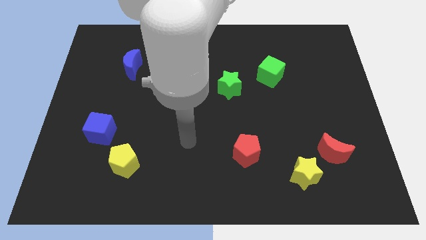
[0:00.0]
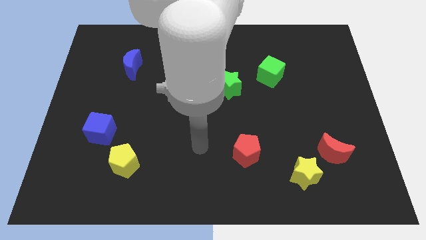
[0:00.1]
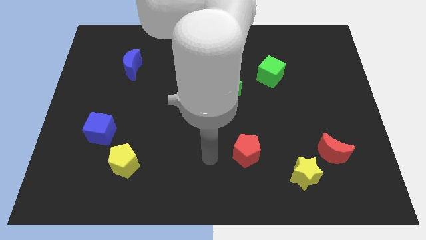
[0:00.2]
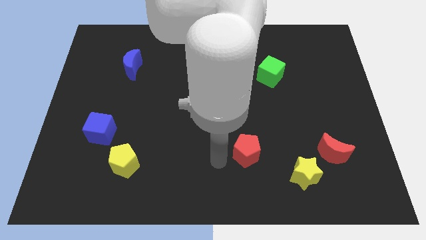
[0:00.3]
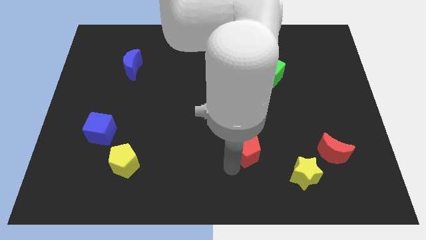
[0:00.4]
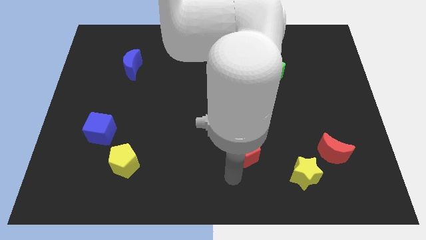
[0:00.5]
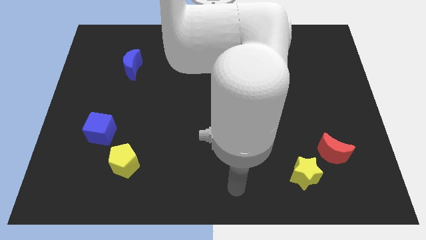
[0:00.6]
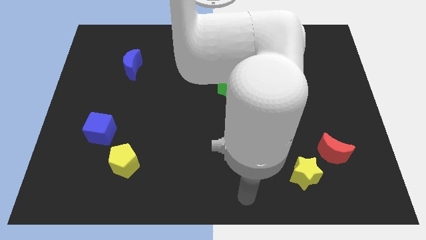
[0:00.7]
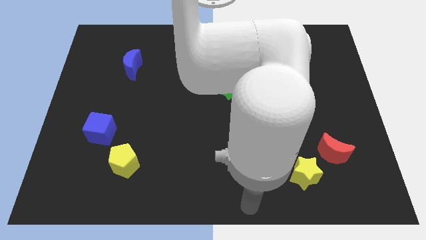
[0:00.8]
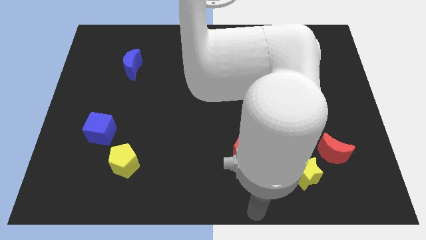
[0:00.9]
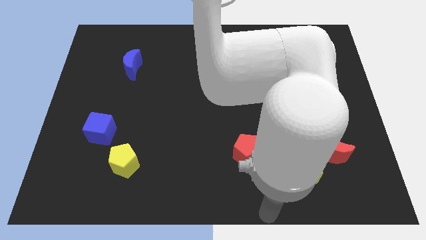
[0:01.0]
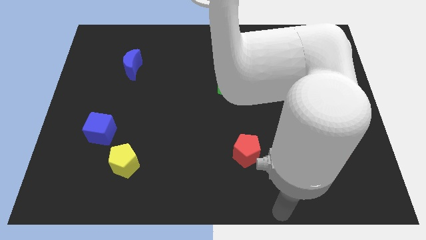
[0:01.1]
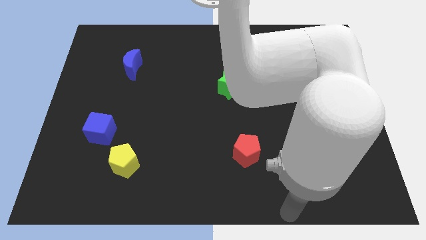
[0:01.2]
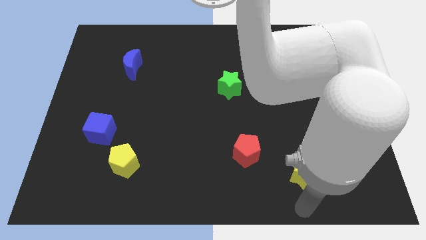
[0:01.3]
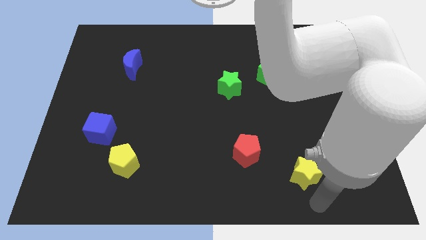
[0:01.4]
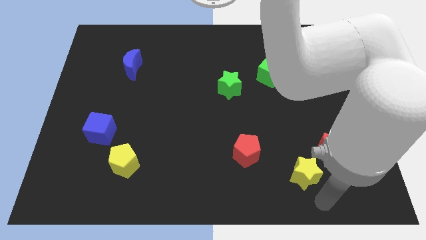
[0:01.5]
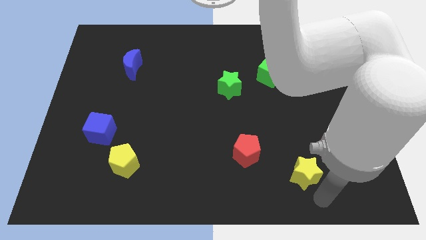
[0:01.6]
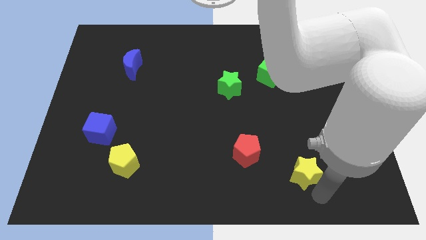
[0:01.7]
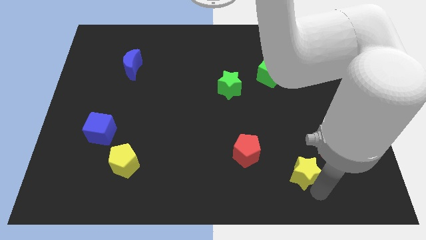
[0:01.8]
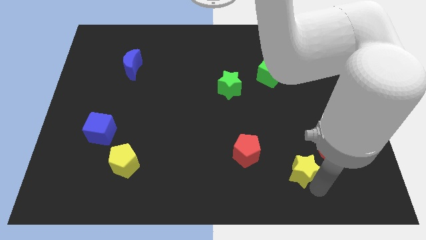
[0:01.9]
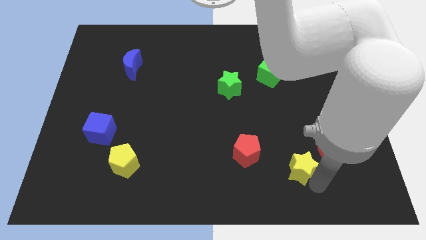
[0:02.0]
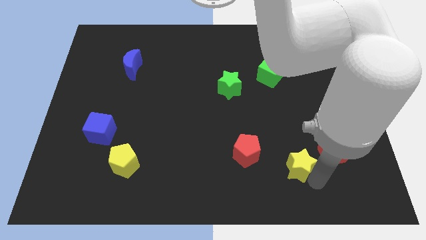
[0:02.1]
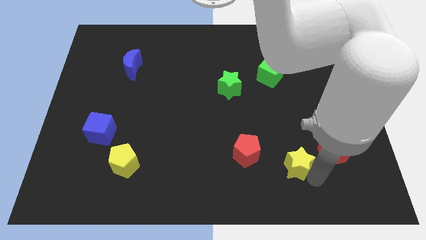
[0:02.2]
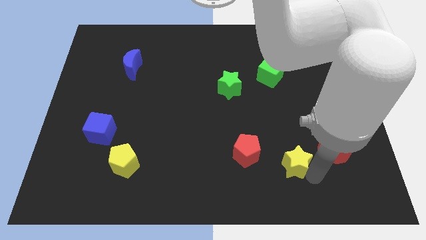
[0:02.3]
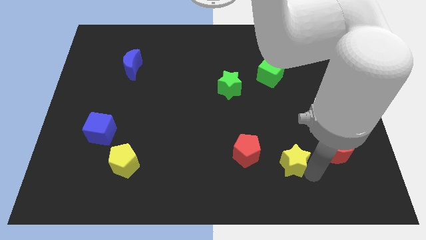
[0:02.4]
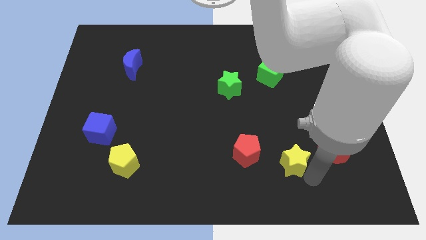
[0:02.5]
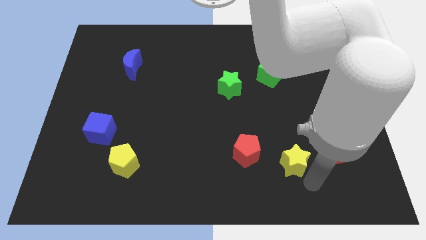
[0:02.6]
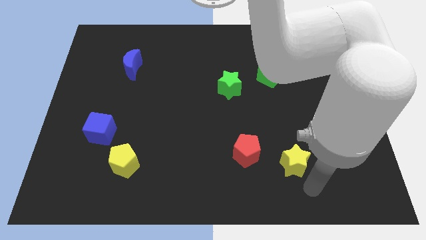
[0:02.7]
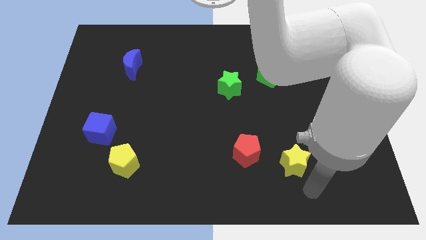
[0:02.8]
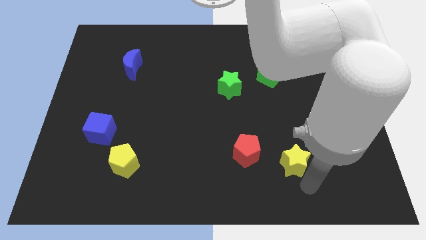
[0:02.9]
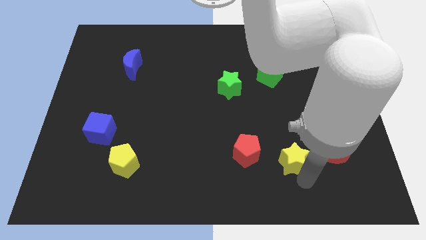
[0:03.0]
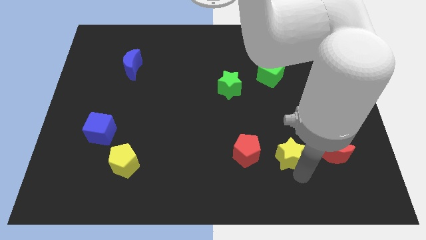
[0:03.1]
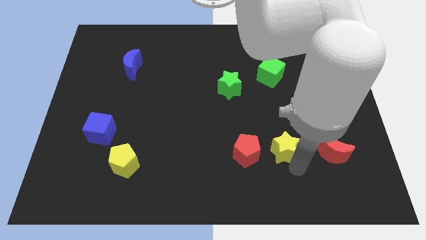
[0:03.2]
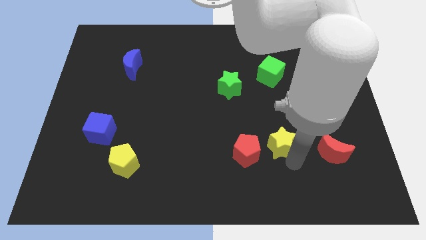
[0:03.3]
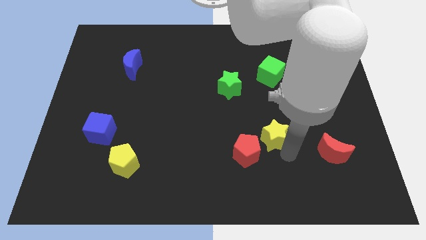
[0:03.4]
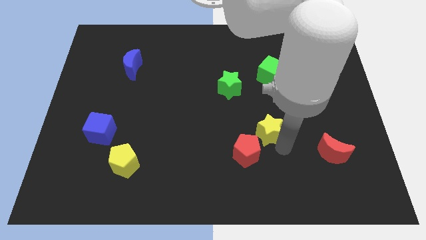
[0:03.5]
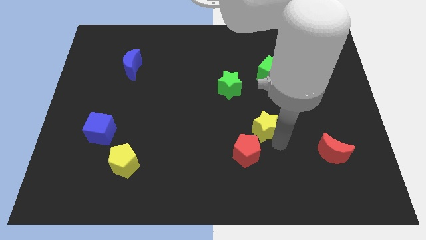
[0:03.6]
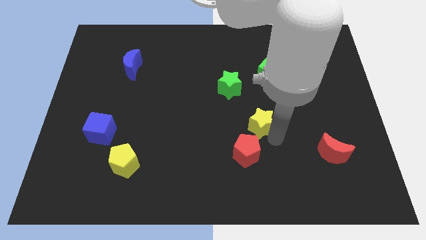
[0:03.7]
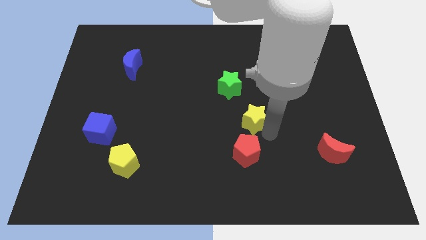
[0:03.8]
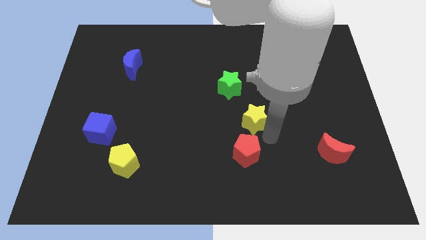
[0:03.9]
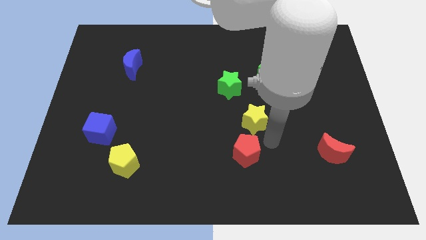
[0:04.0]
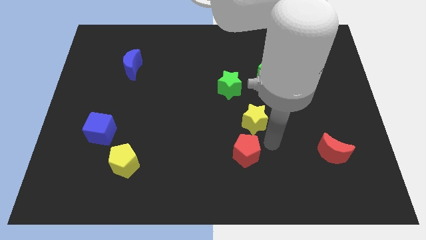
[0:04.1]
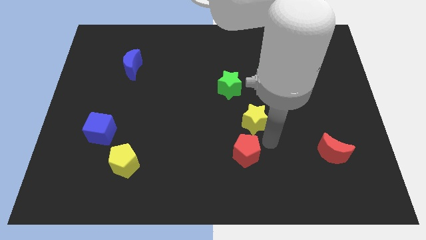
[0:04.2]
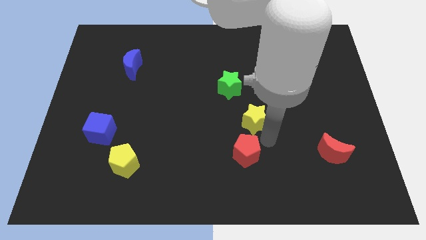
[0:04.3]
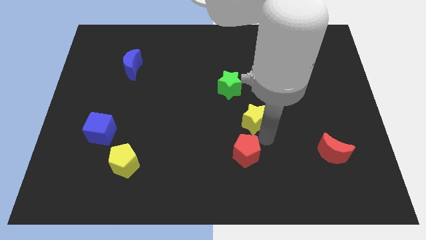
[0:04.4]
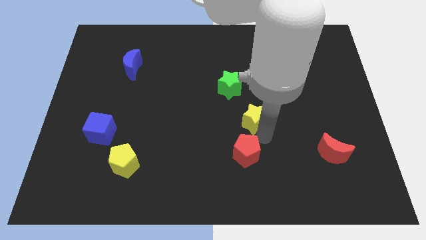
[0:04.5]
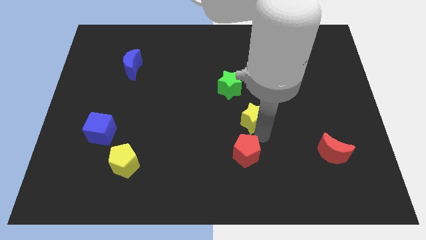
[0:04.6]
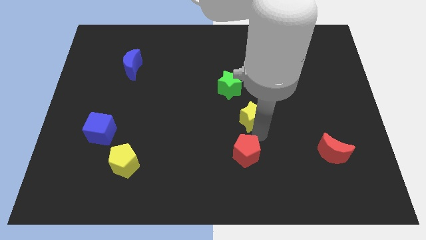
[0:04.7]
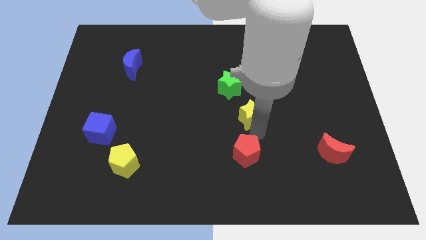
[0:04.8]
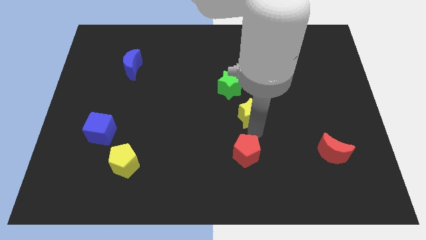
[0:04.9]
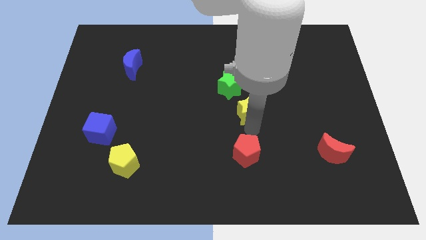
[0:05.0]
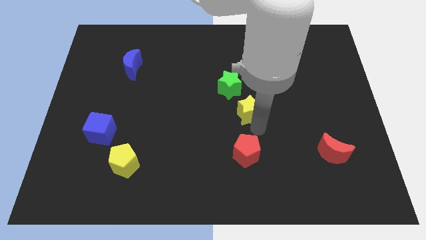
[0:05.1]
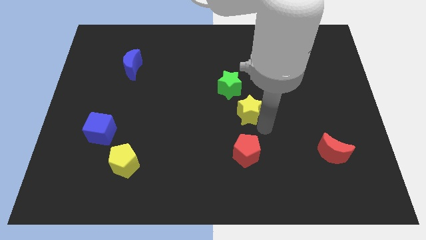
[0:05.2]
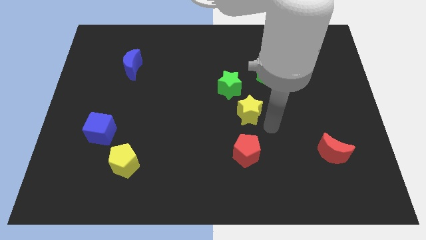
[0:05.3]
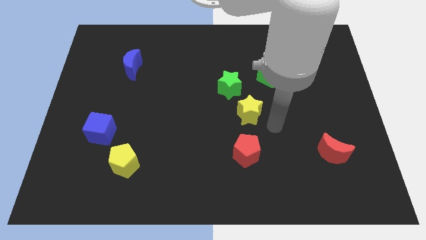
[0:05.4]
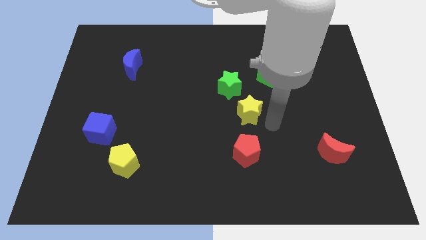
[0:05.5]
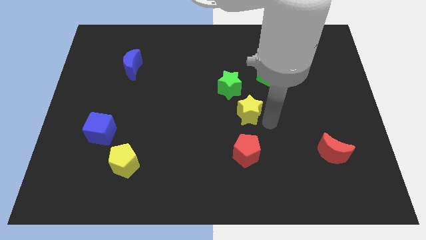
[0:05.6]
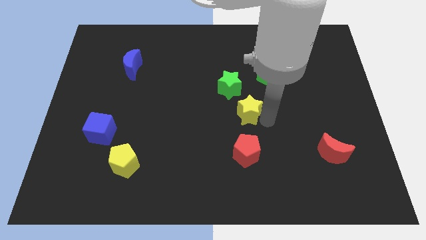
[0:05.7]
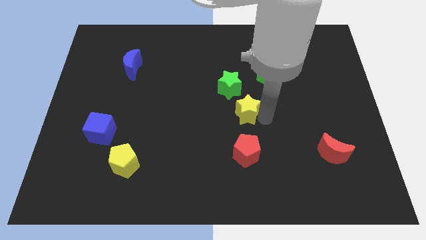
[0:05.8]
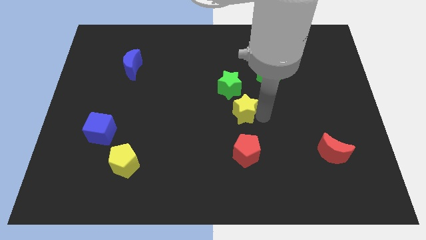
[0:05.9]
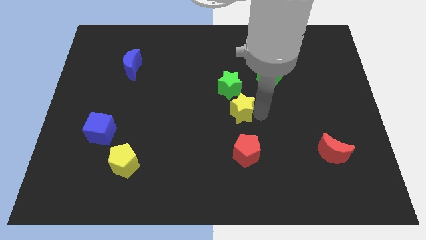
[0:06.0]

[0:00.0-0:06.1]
push the yellow star diagonally upwards and left

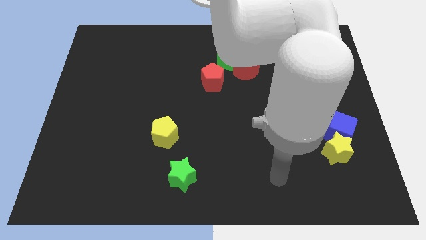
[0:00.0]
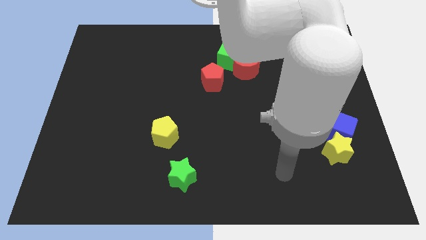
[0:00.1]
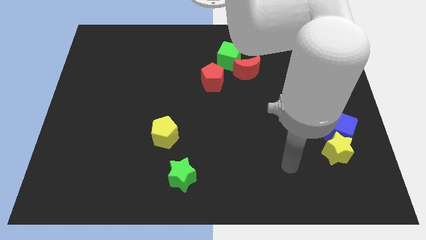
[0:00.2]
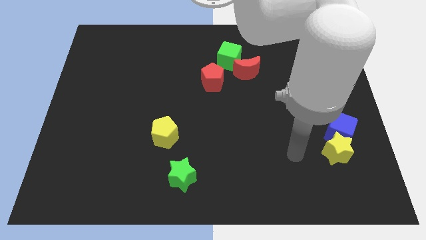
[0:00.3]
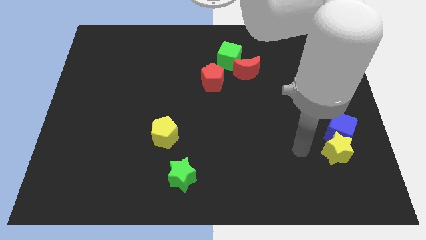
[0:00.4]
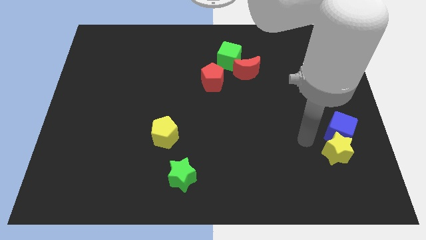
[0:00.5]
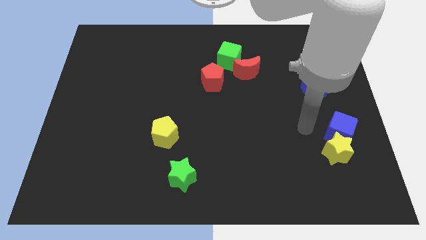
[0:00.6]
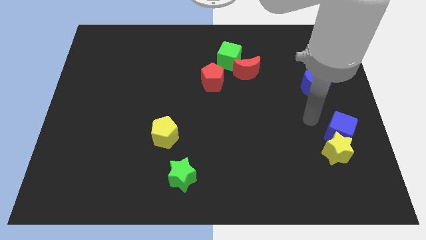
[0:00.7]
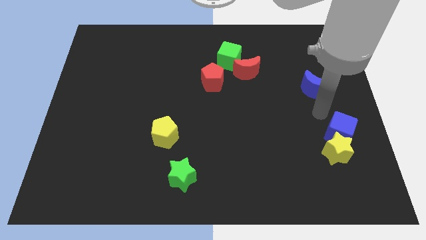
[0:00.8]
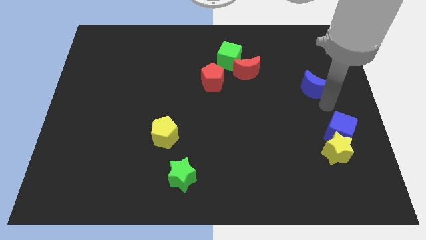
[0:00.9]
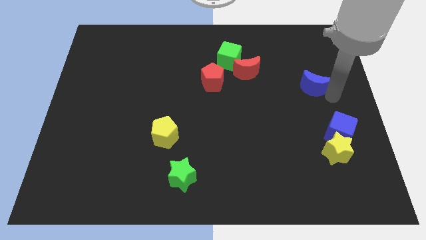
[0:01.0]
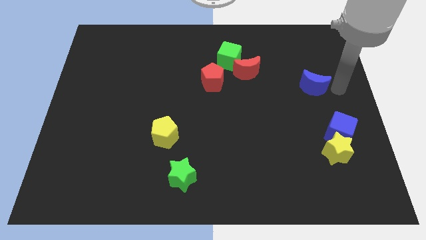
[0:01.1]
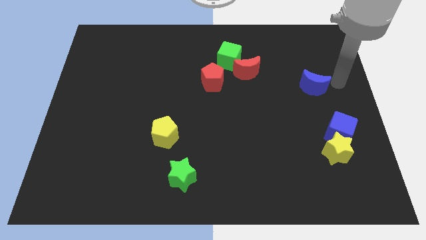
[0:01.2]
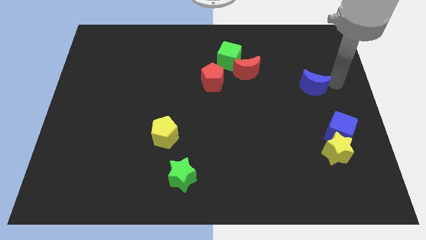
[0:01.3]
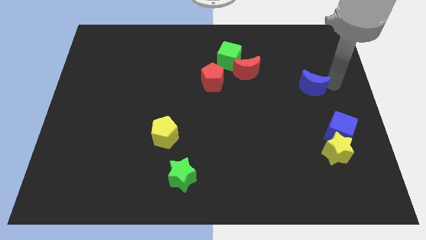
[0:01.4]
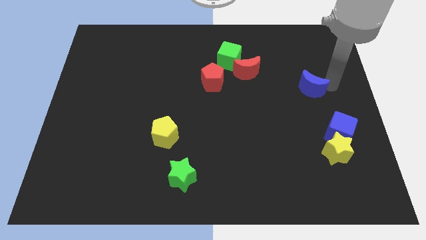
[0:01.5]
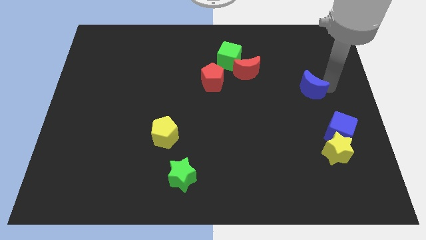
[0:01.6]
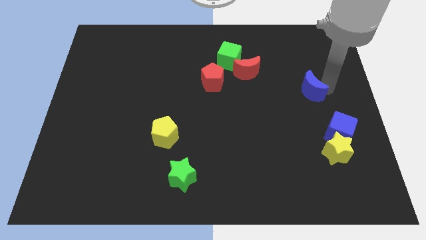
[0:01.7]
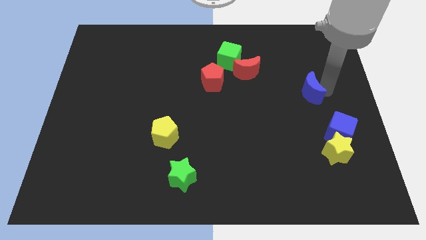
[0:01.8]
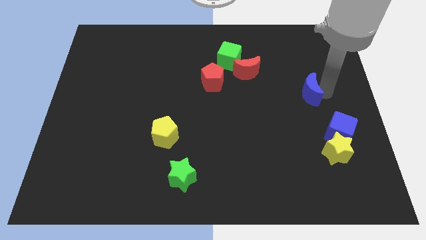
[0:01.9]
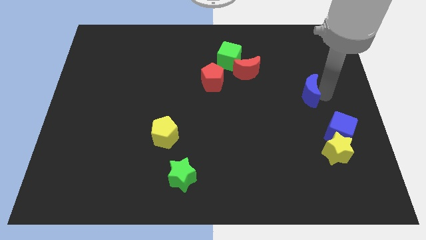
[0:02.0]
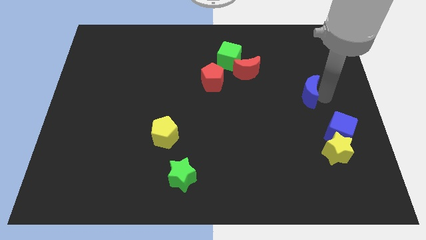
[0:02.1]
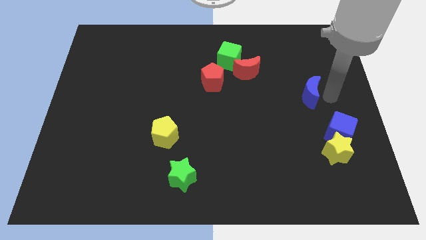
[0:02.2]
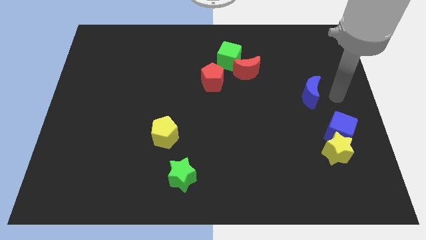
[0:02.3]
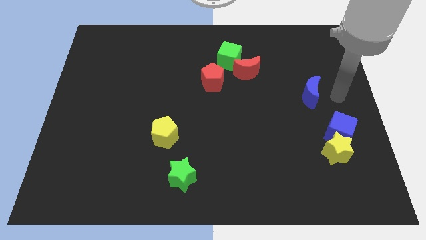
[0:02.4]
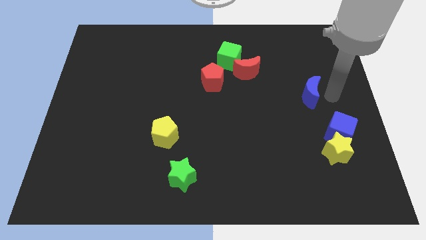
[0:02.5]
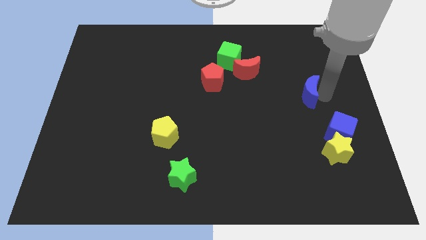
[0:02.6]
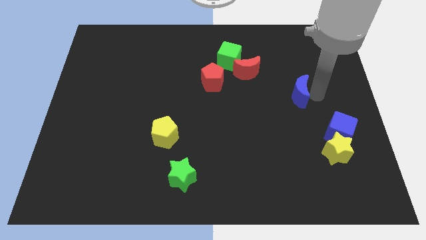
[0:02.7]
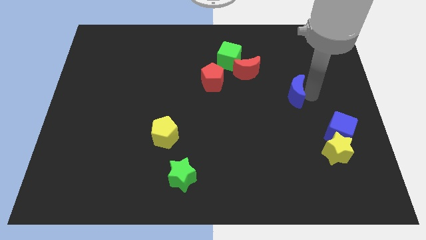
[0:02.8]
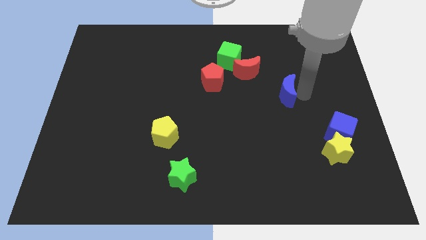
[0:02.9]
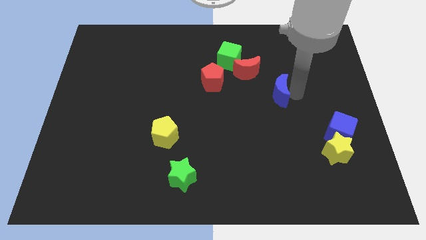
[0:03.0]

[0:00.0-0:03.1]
move the blue moon a little bit to the left
